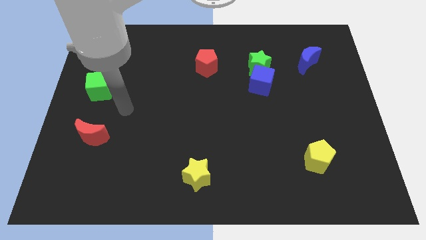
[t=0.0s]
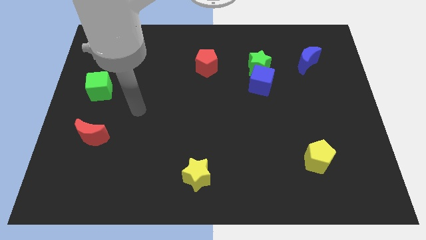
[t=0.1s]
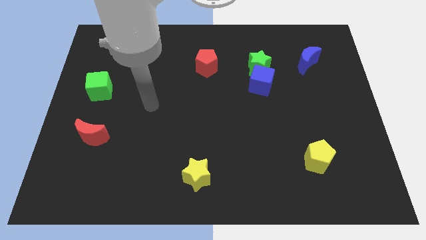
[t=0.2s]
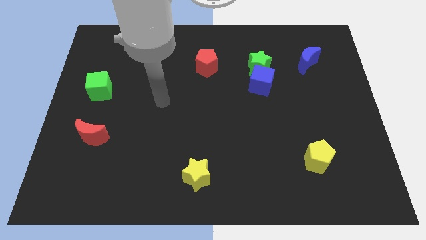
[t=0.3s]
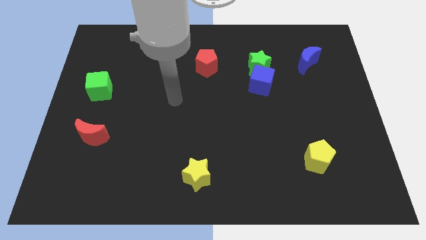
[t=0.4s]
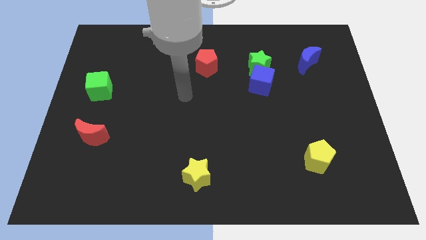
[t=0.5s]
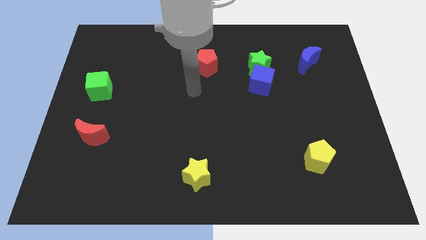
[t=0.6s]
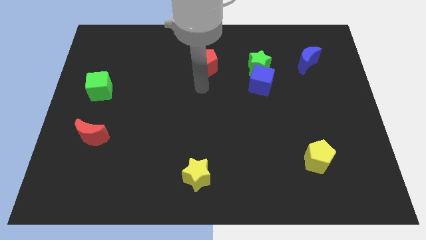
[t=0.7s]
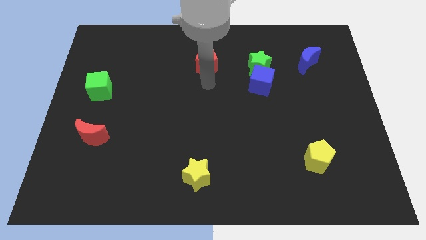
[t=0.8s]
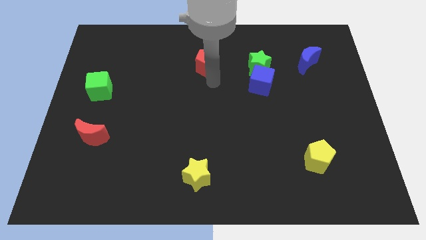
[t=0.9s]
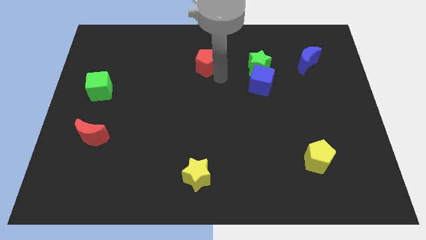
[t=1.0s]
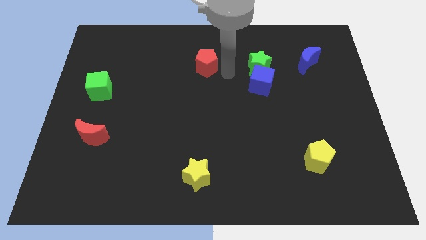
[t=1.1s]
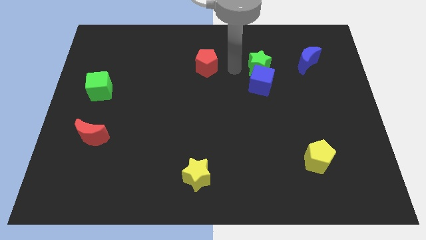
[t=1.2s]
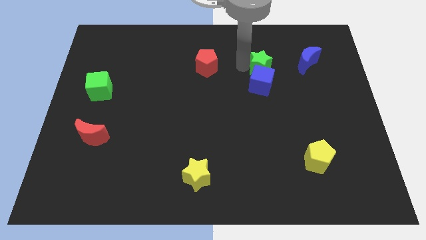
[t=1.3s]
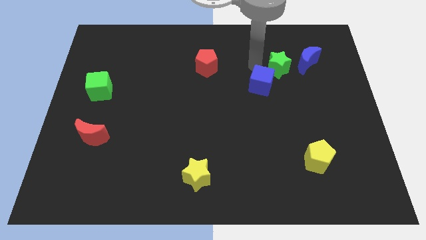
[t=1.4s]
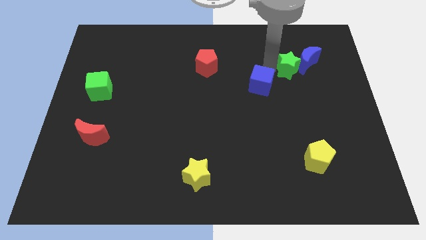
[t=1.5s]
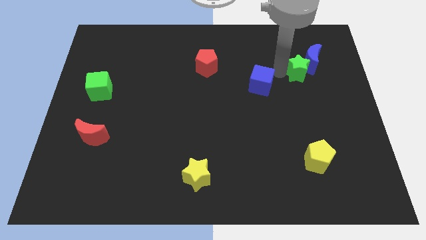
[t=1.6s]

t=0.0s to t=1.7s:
move the blue cube away from the green star

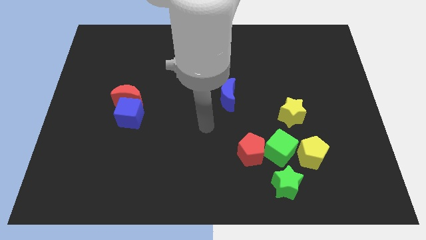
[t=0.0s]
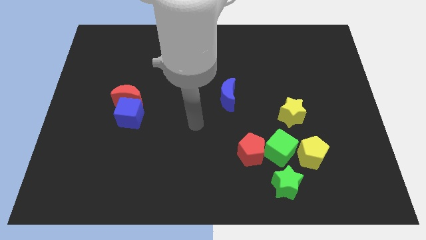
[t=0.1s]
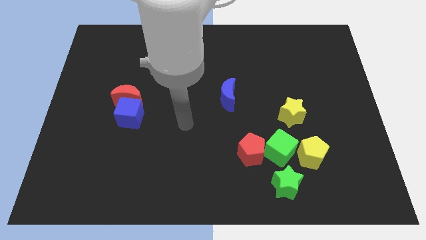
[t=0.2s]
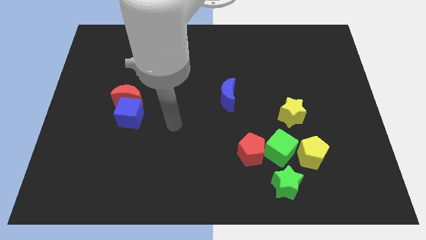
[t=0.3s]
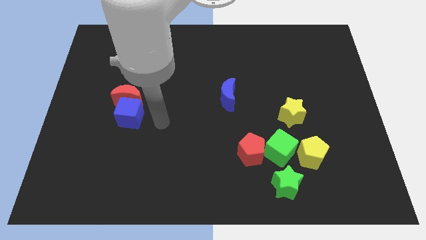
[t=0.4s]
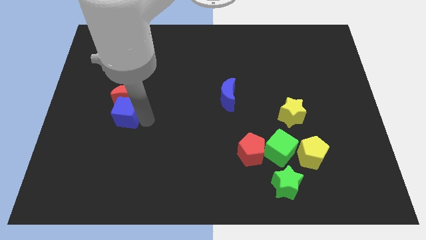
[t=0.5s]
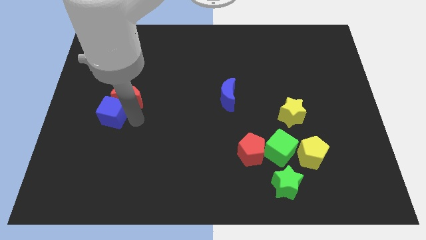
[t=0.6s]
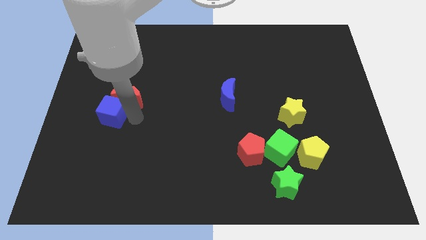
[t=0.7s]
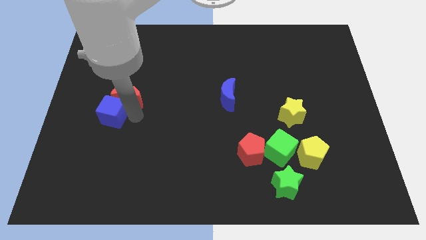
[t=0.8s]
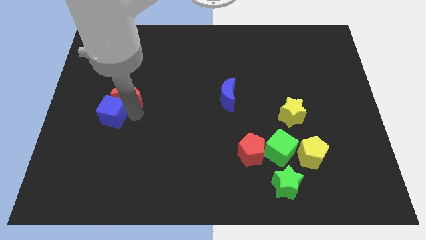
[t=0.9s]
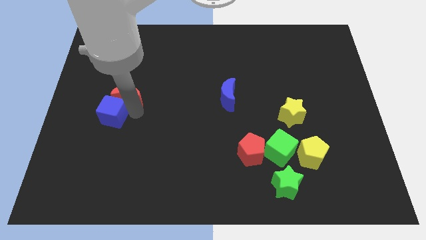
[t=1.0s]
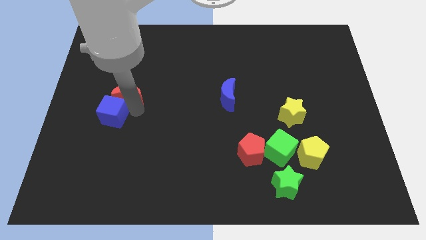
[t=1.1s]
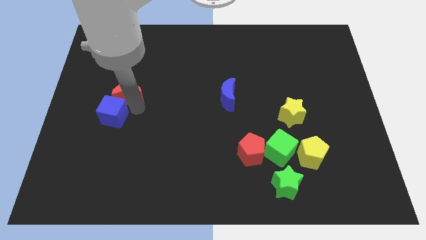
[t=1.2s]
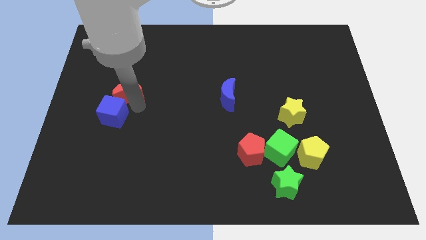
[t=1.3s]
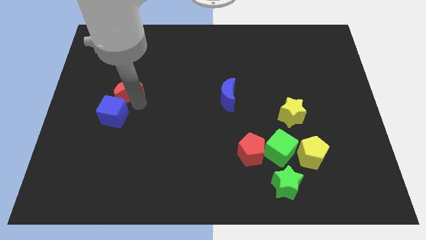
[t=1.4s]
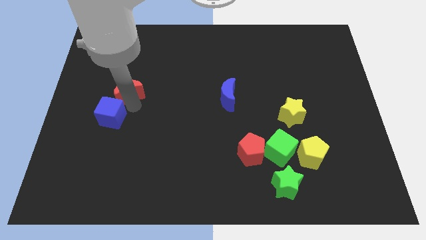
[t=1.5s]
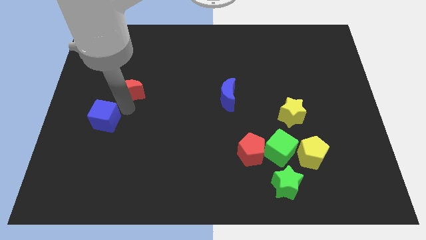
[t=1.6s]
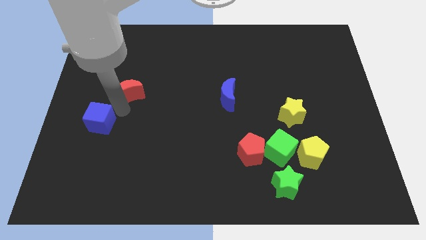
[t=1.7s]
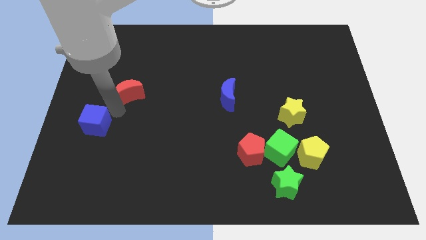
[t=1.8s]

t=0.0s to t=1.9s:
pull the red moon apart from the blue cube

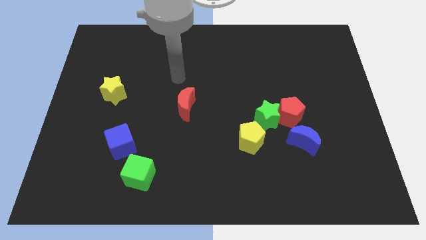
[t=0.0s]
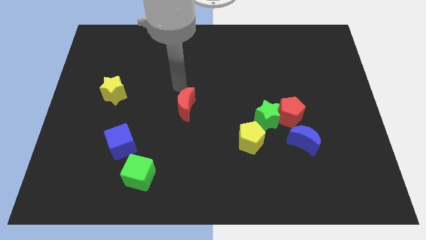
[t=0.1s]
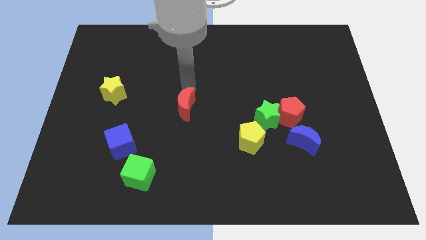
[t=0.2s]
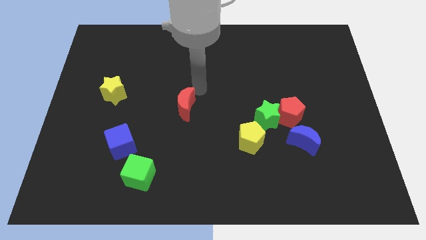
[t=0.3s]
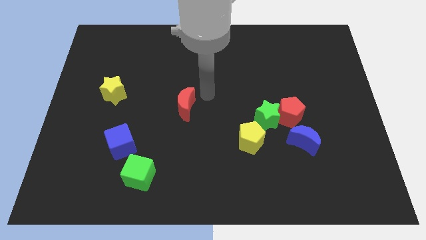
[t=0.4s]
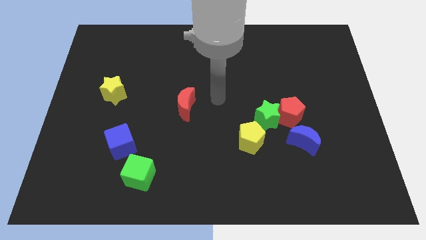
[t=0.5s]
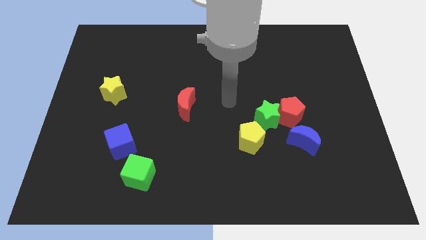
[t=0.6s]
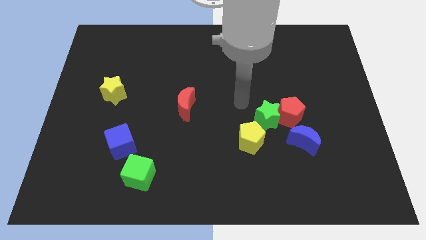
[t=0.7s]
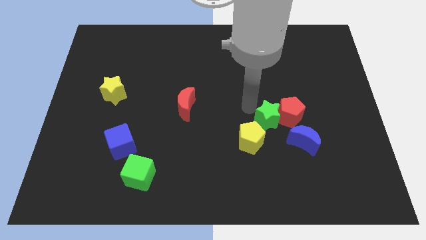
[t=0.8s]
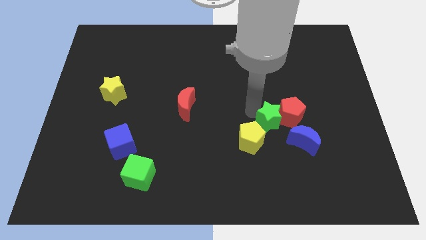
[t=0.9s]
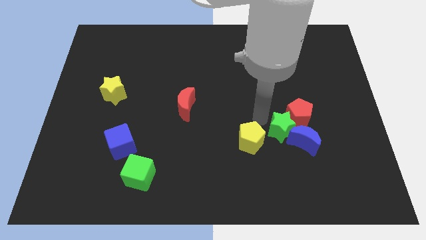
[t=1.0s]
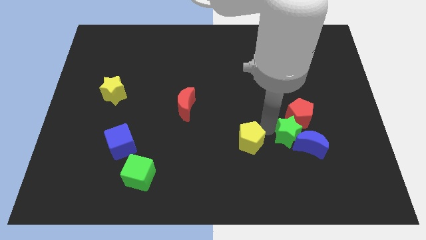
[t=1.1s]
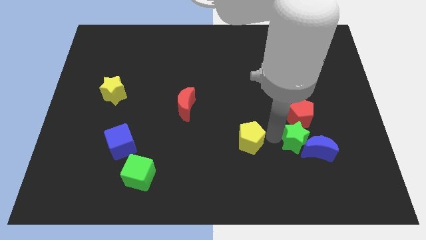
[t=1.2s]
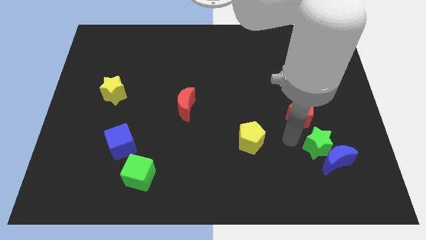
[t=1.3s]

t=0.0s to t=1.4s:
pull the red pentagon apart from the green star and blue moon

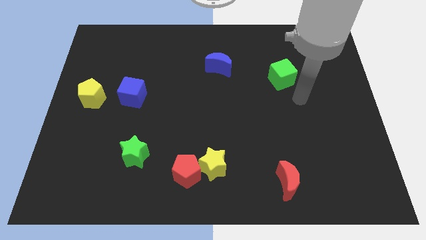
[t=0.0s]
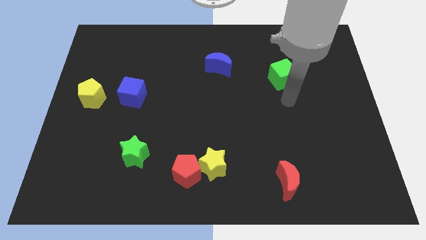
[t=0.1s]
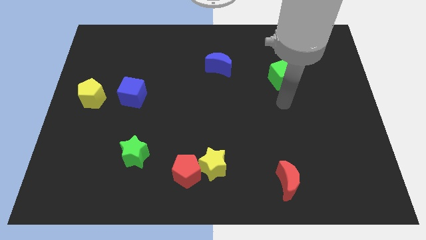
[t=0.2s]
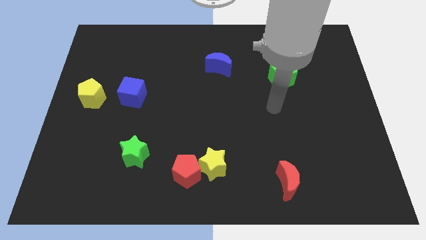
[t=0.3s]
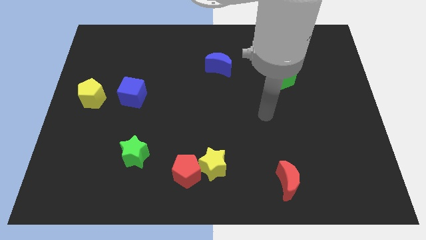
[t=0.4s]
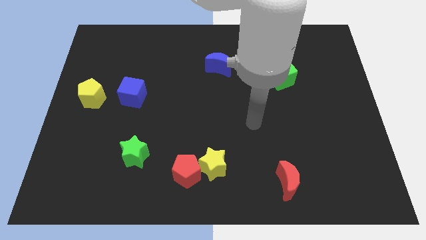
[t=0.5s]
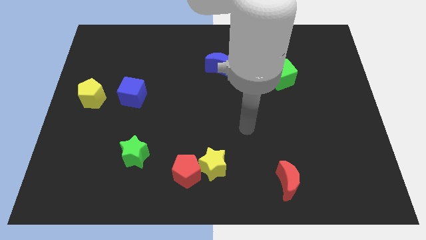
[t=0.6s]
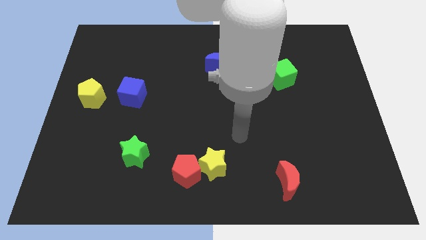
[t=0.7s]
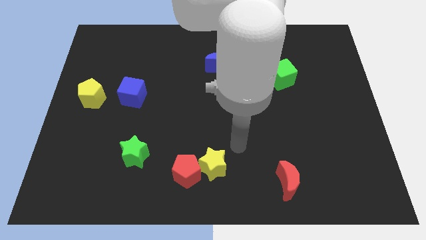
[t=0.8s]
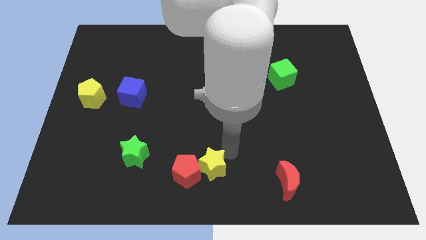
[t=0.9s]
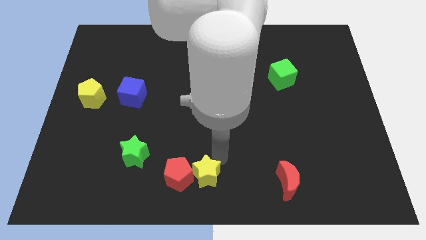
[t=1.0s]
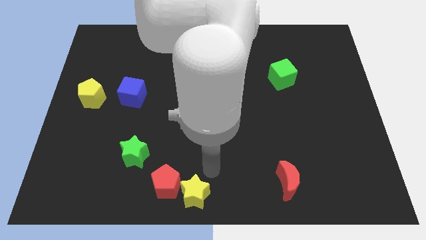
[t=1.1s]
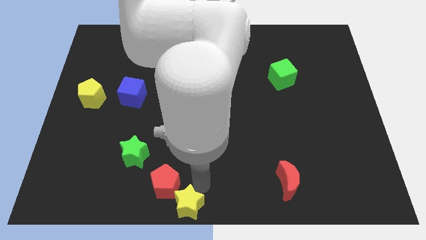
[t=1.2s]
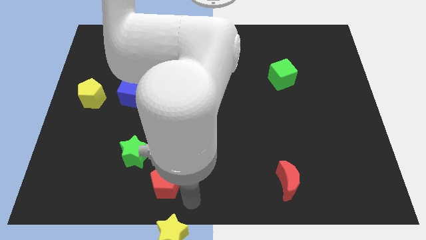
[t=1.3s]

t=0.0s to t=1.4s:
pull the red pentagon apart from the yellow star

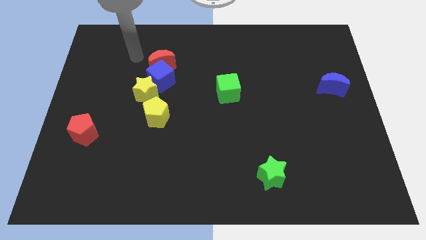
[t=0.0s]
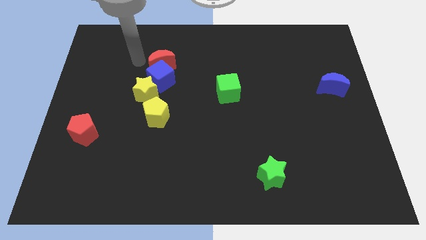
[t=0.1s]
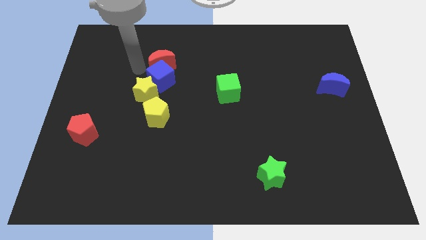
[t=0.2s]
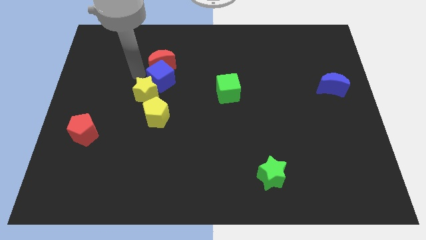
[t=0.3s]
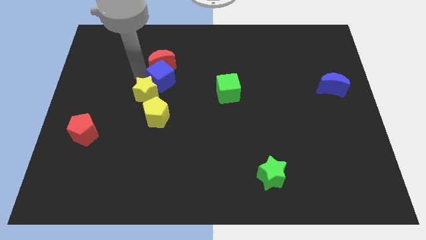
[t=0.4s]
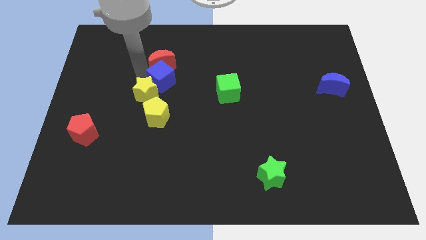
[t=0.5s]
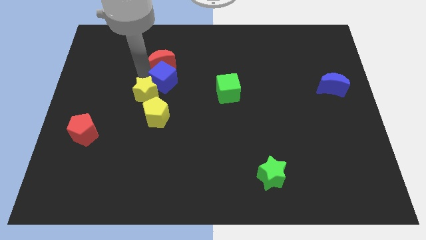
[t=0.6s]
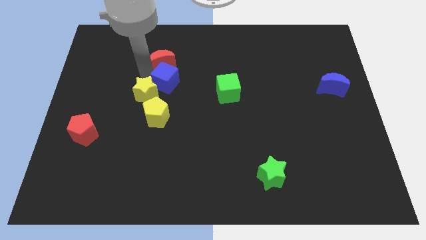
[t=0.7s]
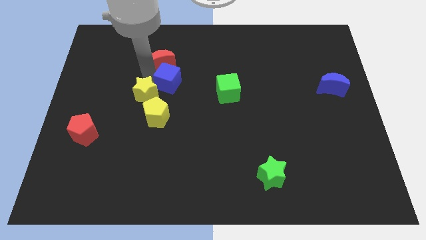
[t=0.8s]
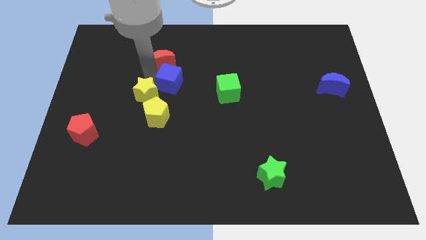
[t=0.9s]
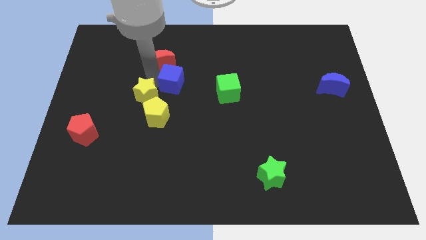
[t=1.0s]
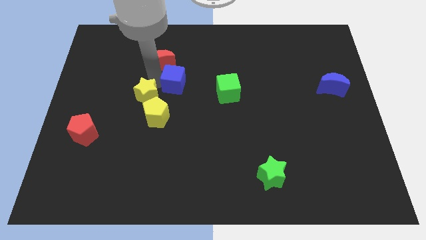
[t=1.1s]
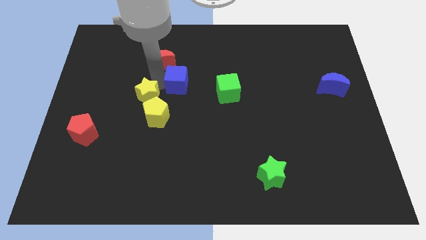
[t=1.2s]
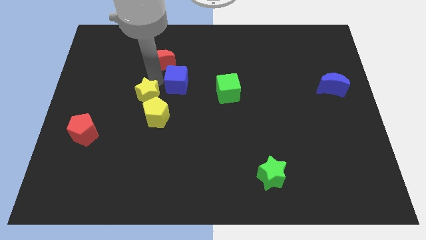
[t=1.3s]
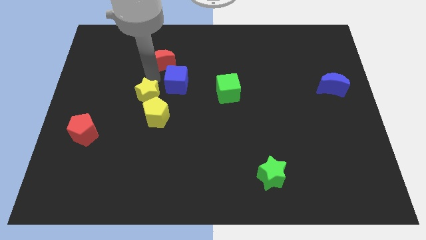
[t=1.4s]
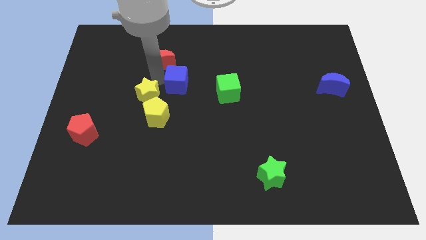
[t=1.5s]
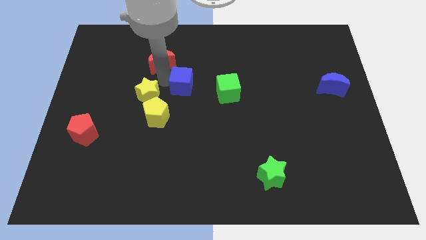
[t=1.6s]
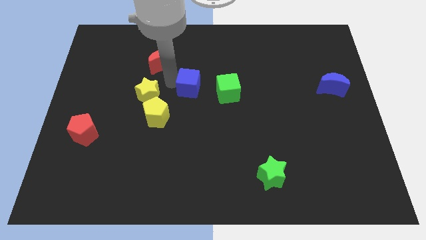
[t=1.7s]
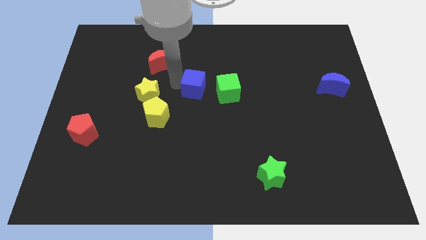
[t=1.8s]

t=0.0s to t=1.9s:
move the blue cube away from the red moon and yellow star

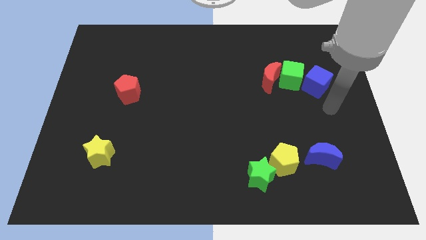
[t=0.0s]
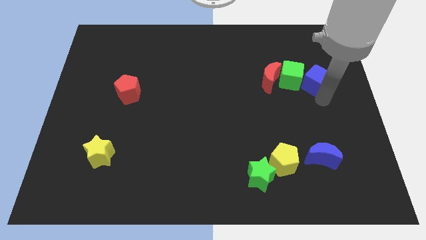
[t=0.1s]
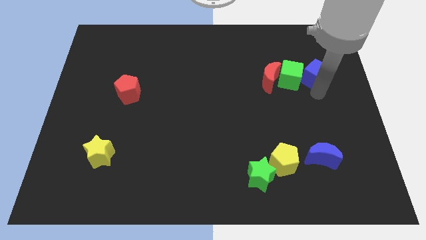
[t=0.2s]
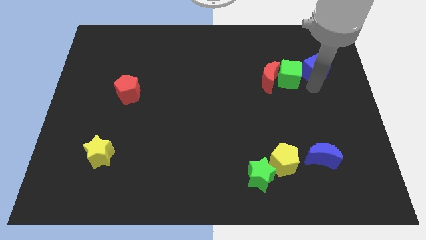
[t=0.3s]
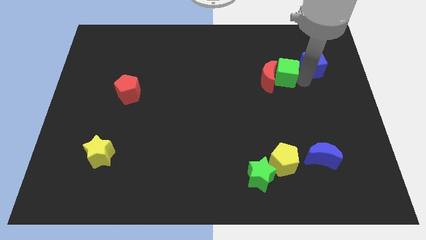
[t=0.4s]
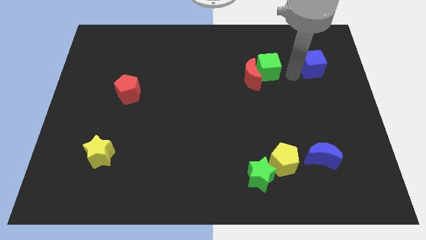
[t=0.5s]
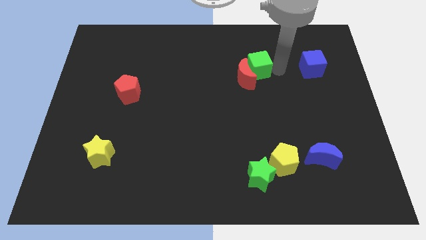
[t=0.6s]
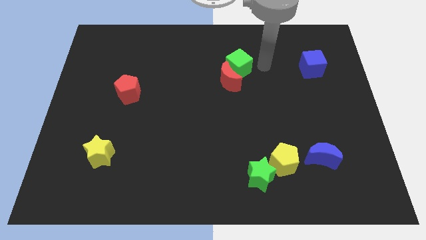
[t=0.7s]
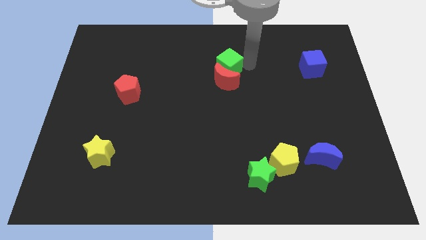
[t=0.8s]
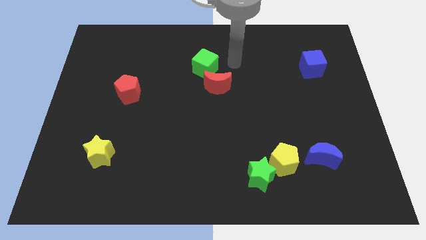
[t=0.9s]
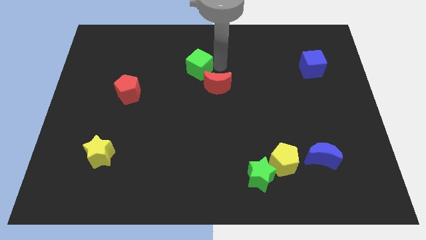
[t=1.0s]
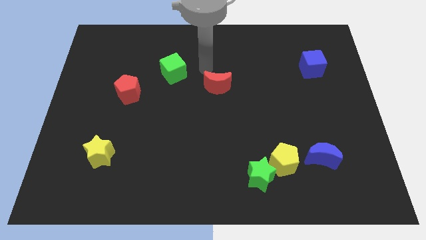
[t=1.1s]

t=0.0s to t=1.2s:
pull the red moon apart from the green cube
